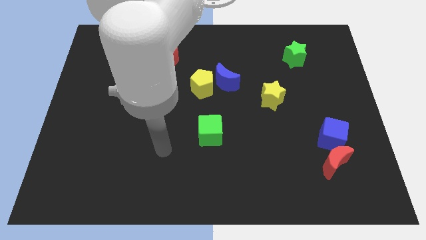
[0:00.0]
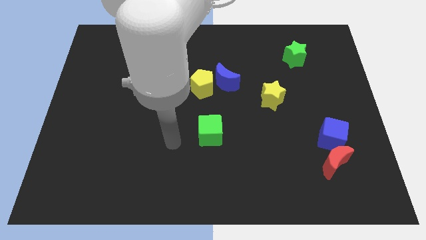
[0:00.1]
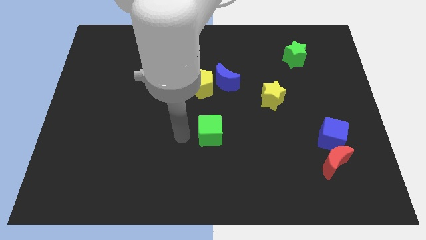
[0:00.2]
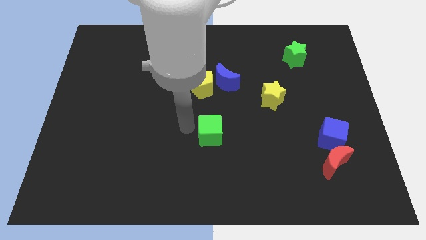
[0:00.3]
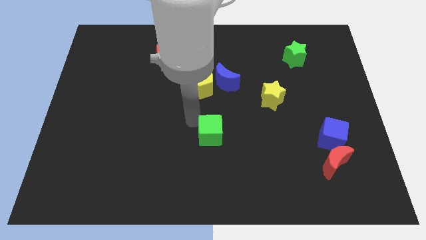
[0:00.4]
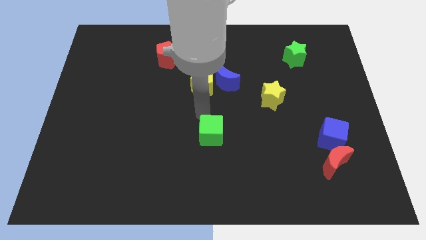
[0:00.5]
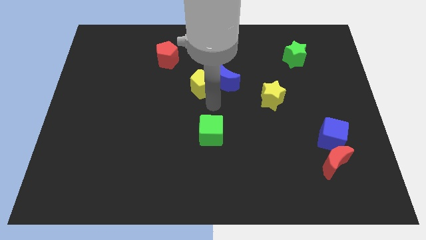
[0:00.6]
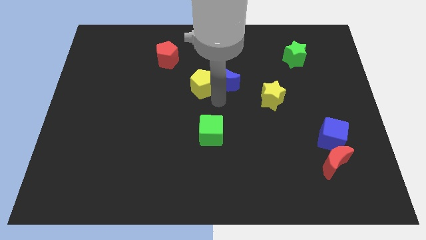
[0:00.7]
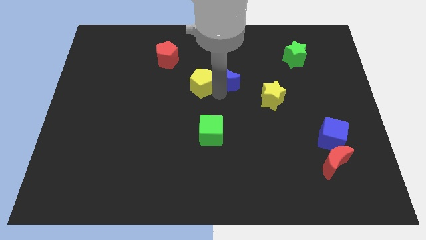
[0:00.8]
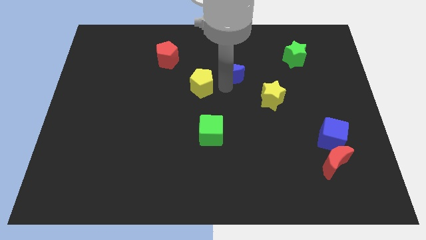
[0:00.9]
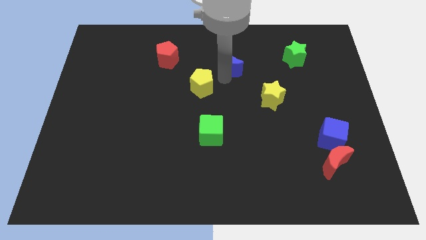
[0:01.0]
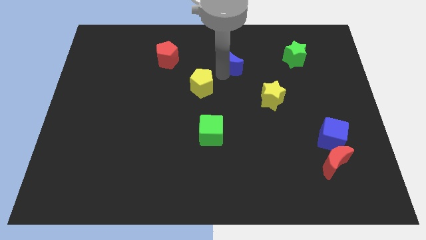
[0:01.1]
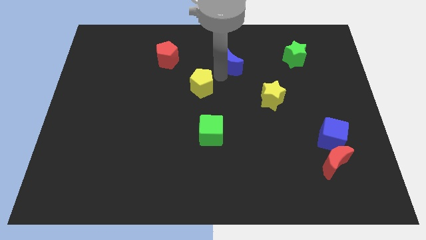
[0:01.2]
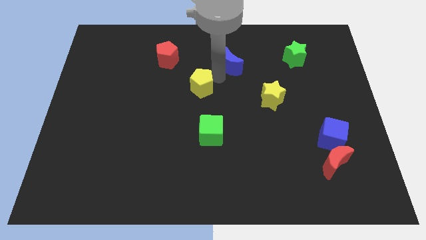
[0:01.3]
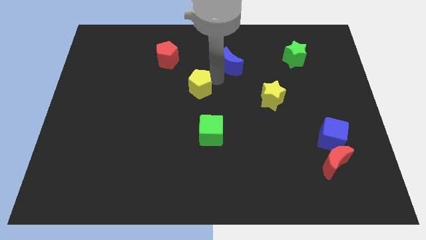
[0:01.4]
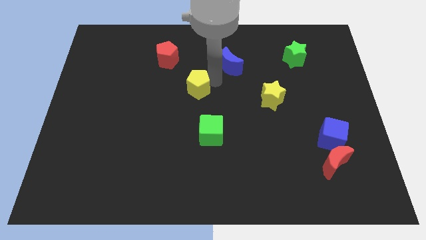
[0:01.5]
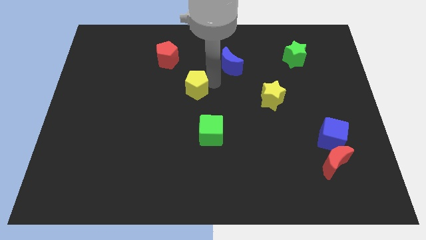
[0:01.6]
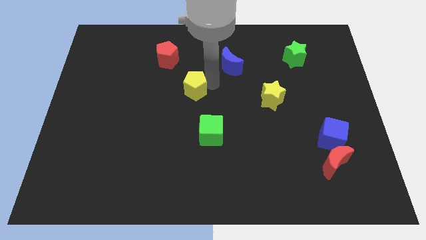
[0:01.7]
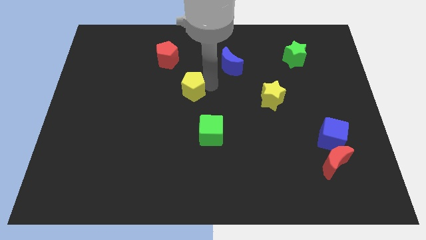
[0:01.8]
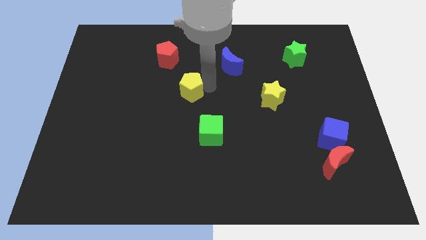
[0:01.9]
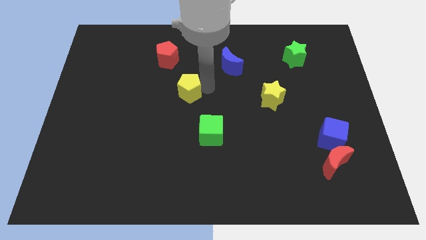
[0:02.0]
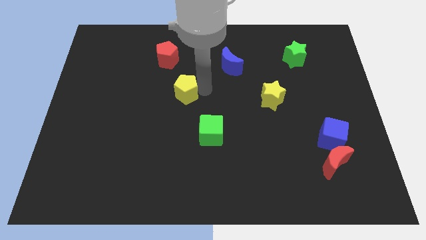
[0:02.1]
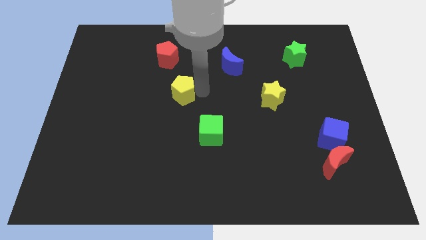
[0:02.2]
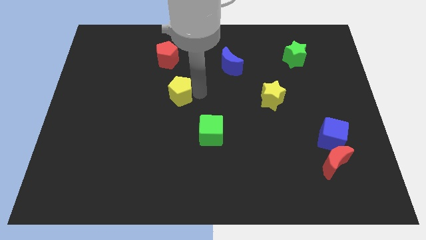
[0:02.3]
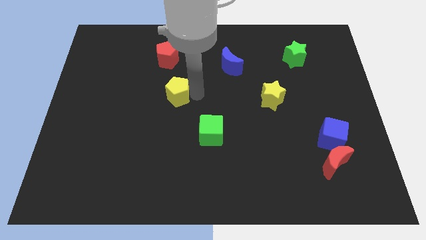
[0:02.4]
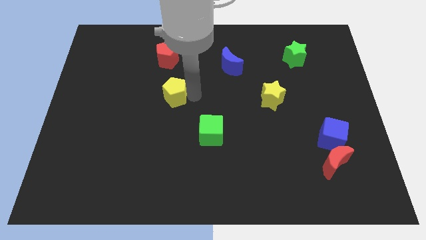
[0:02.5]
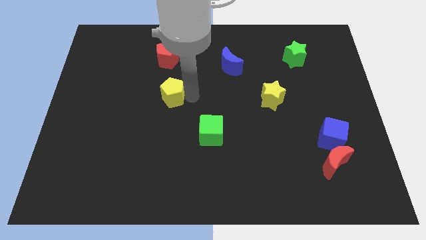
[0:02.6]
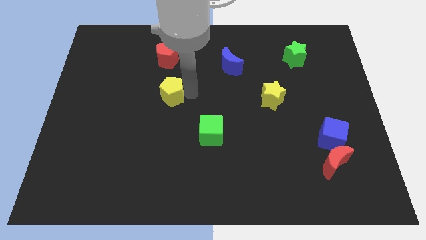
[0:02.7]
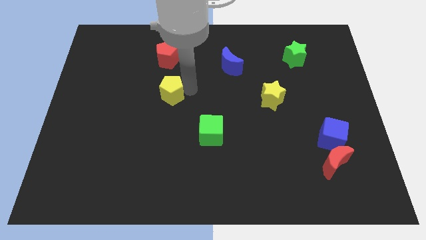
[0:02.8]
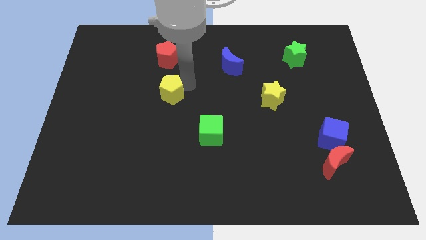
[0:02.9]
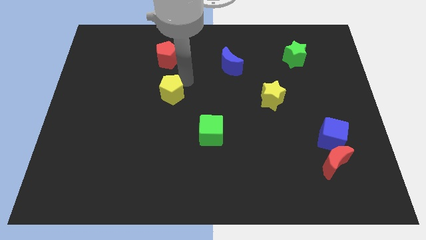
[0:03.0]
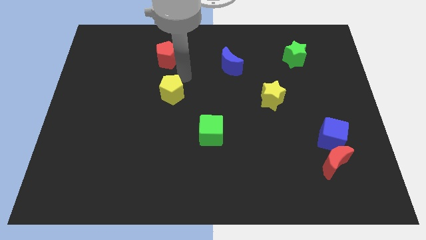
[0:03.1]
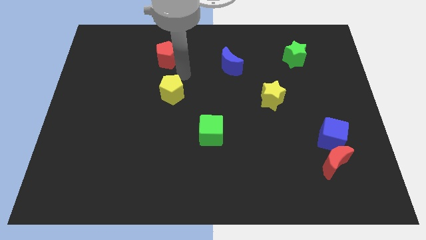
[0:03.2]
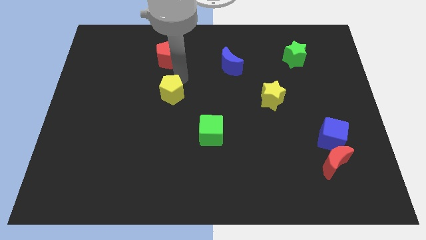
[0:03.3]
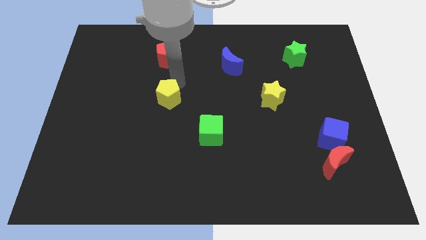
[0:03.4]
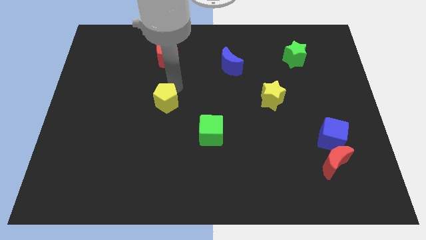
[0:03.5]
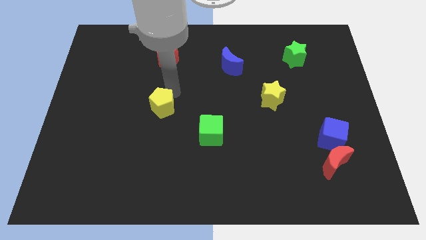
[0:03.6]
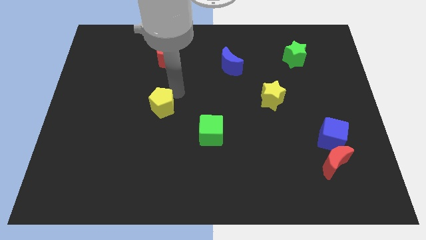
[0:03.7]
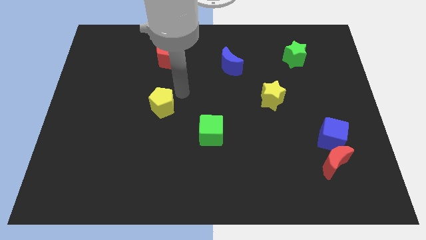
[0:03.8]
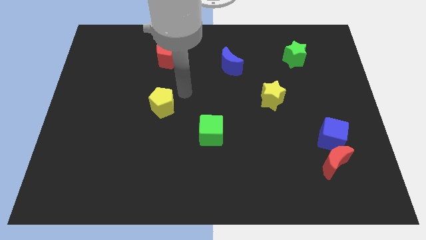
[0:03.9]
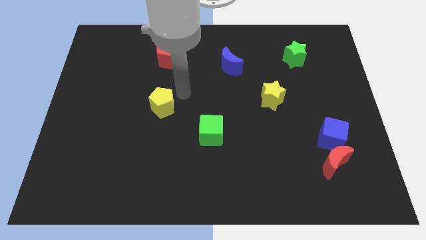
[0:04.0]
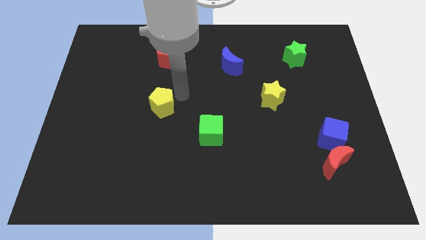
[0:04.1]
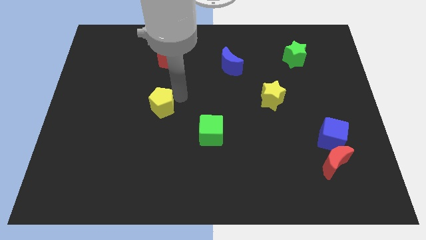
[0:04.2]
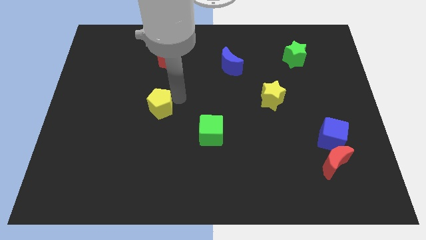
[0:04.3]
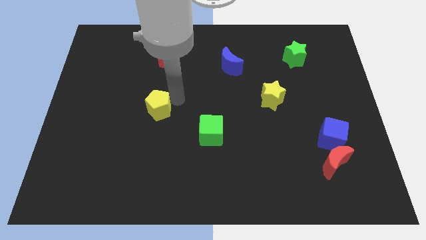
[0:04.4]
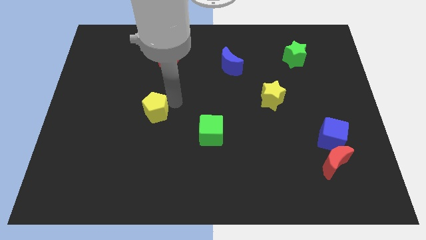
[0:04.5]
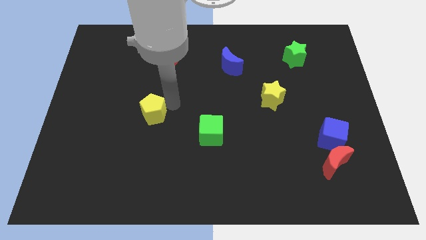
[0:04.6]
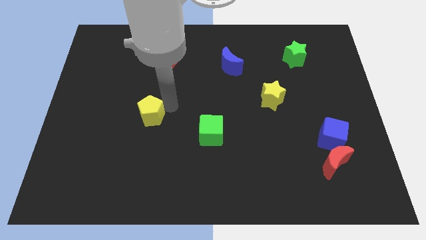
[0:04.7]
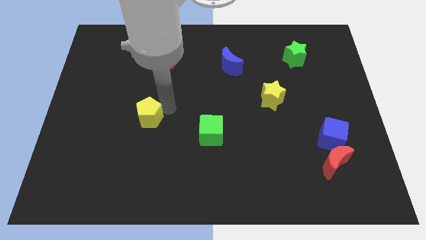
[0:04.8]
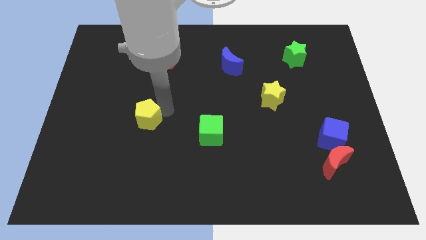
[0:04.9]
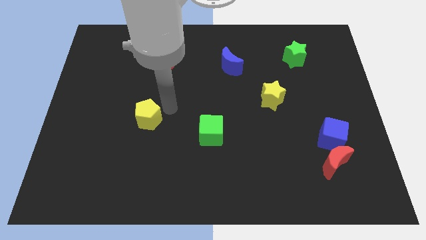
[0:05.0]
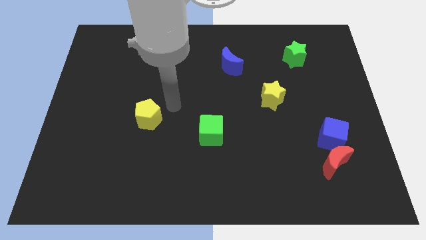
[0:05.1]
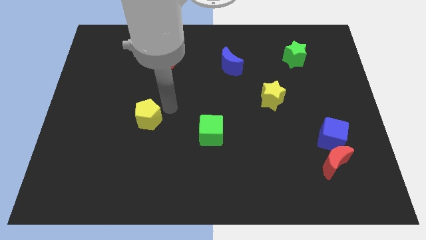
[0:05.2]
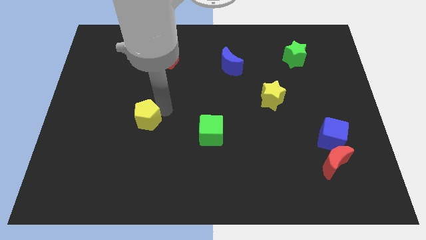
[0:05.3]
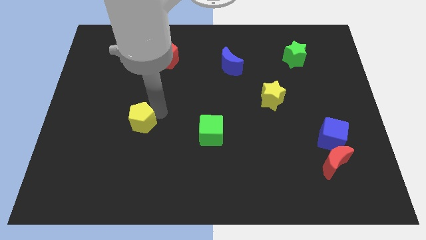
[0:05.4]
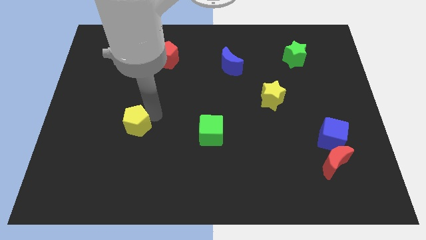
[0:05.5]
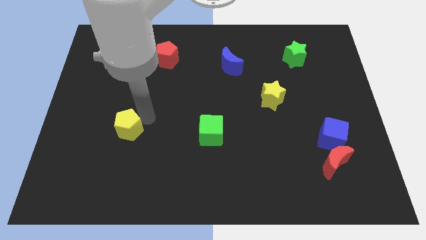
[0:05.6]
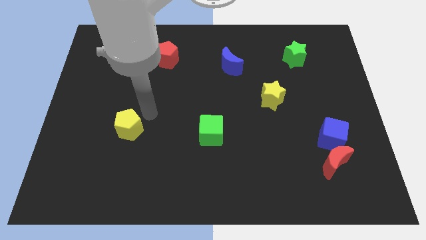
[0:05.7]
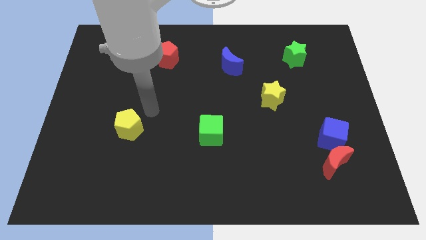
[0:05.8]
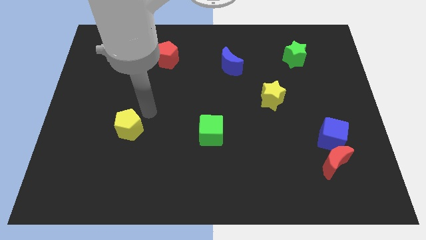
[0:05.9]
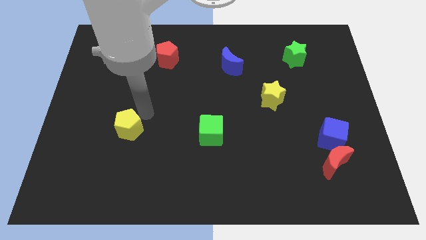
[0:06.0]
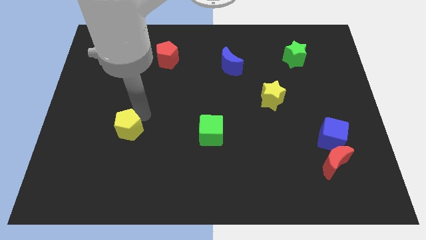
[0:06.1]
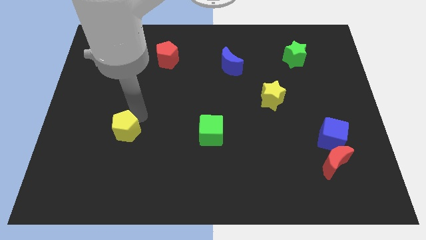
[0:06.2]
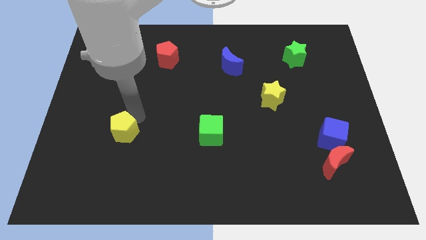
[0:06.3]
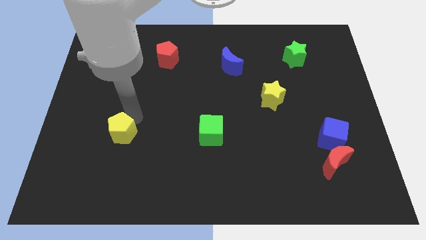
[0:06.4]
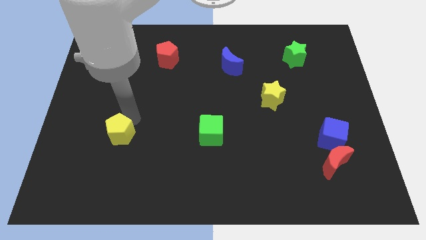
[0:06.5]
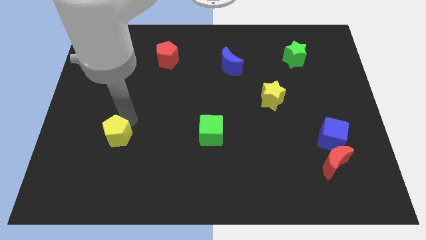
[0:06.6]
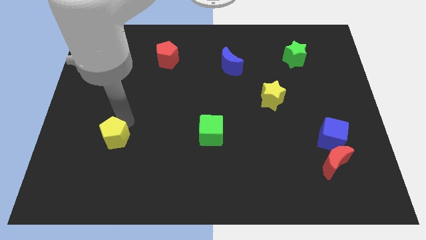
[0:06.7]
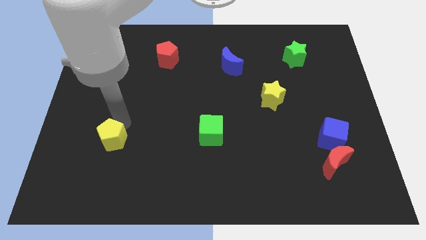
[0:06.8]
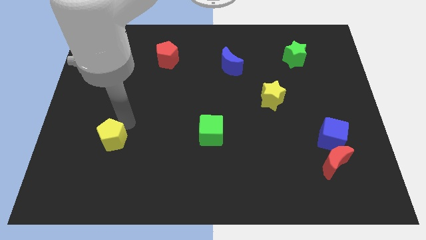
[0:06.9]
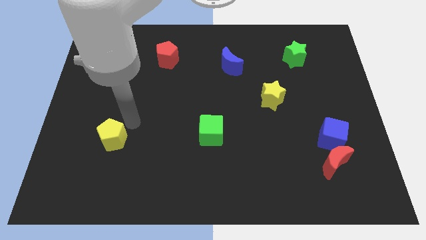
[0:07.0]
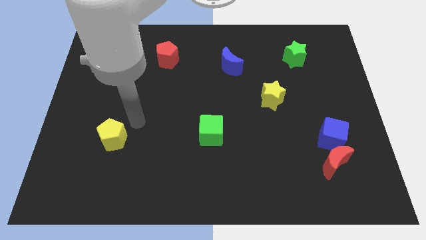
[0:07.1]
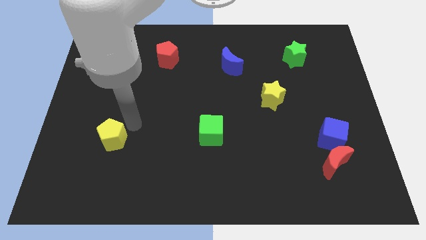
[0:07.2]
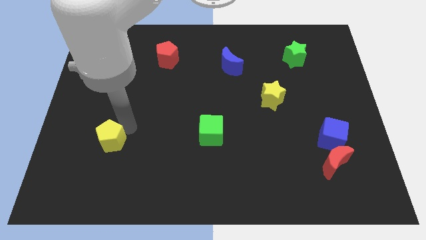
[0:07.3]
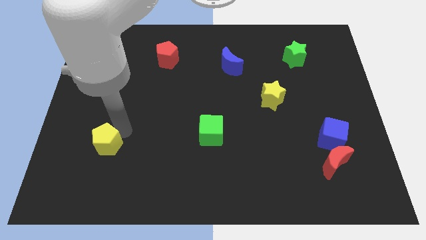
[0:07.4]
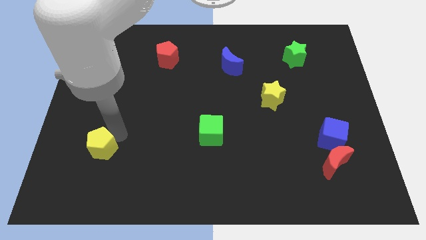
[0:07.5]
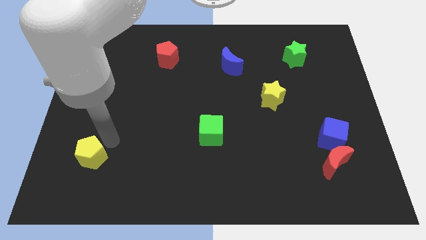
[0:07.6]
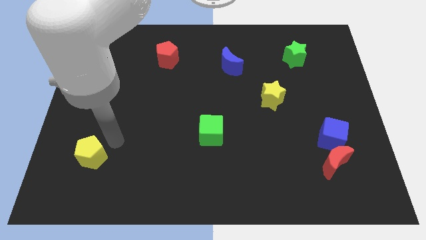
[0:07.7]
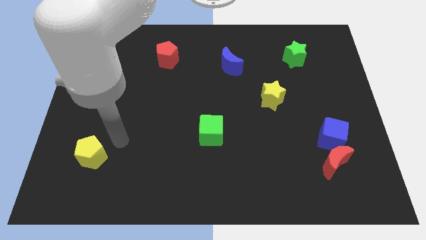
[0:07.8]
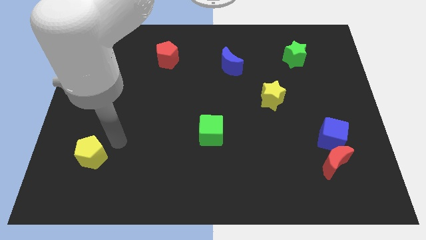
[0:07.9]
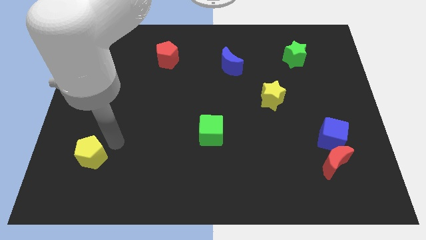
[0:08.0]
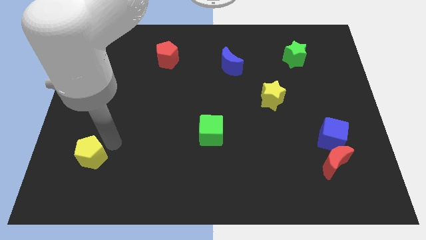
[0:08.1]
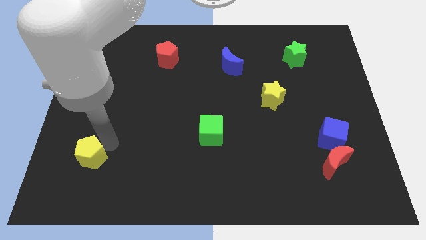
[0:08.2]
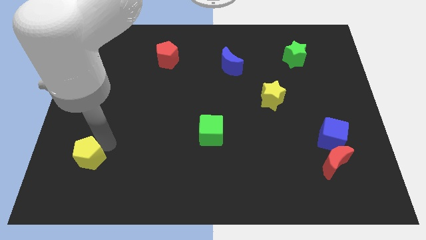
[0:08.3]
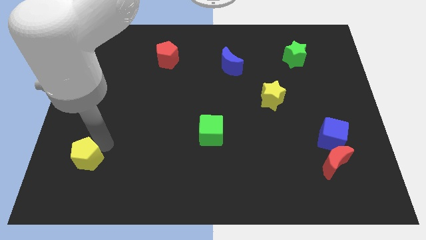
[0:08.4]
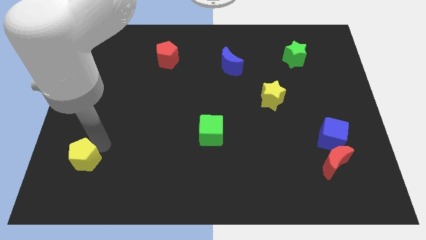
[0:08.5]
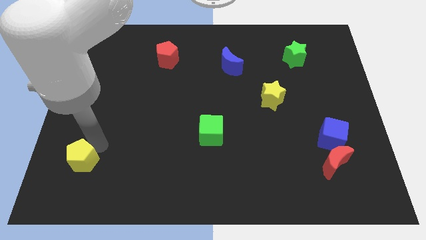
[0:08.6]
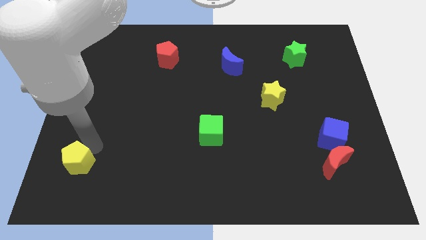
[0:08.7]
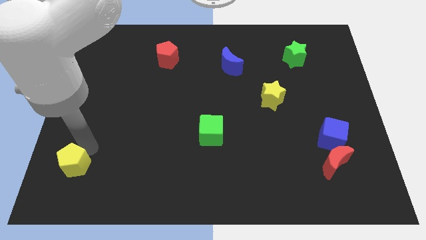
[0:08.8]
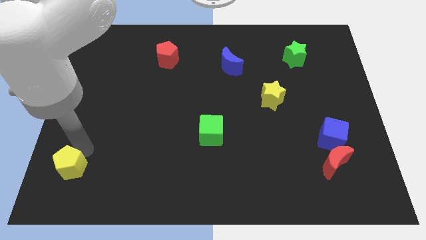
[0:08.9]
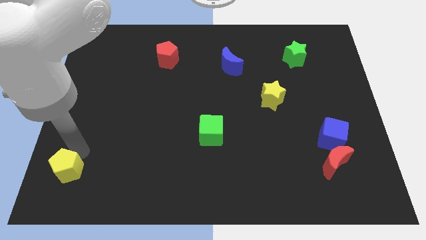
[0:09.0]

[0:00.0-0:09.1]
push the yellow pentagon to the bottom left of the board
